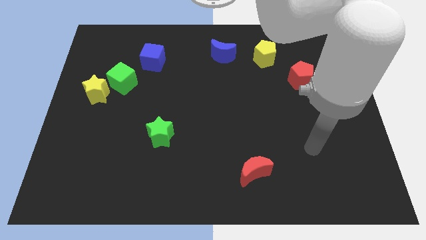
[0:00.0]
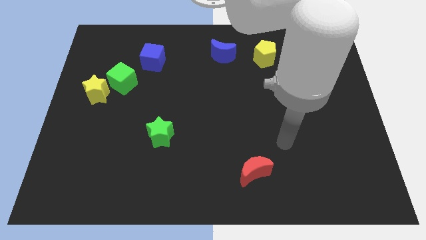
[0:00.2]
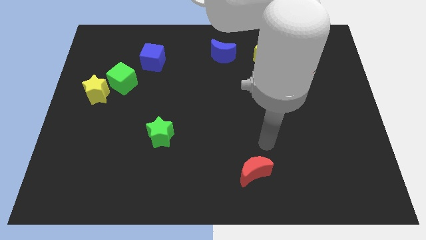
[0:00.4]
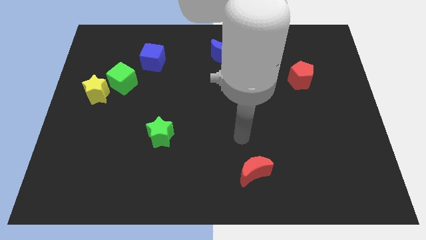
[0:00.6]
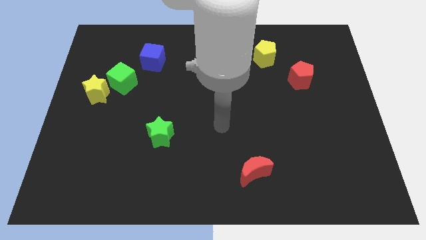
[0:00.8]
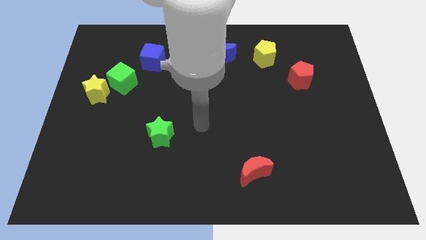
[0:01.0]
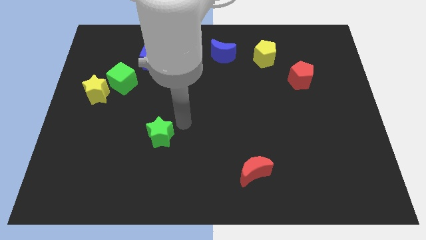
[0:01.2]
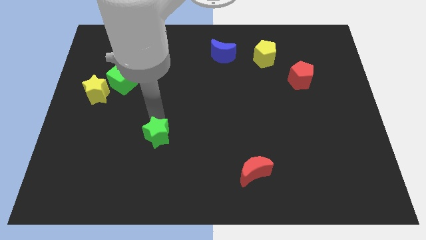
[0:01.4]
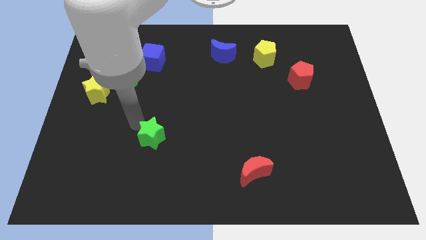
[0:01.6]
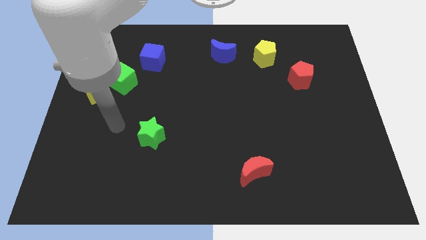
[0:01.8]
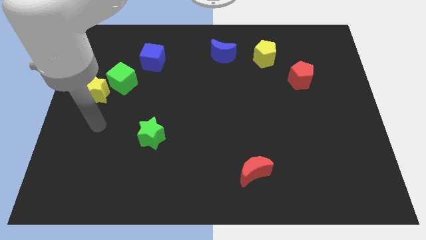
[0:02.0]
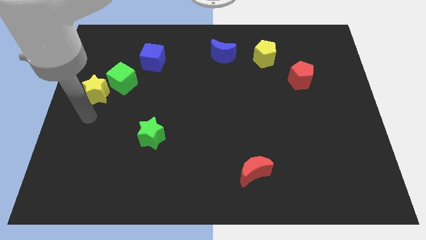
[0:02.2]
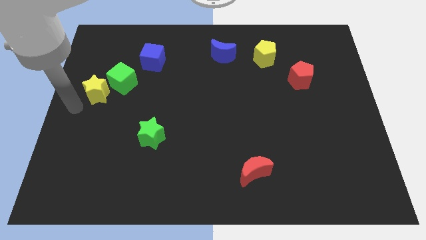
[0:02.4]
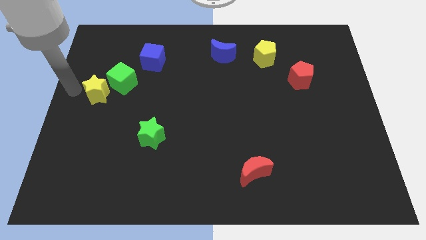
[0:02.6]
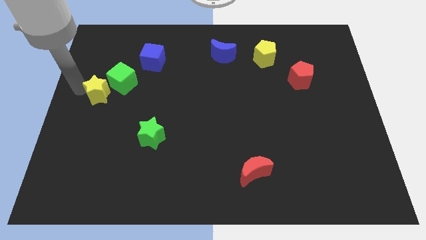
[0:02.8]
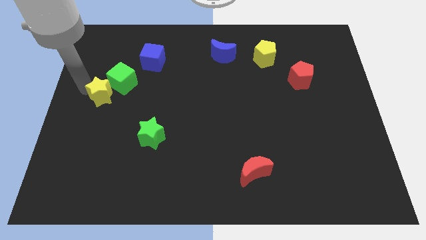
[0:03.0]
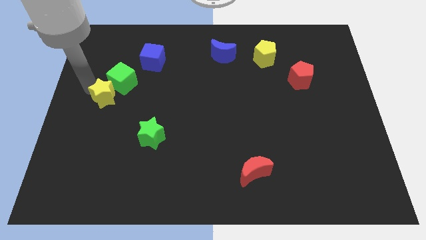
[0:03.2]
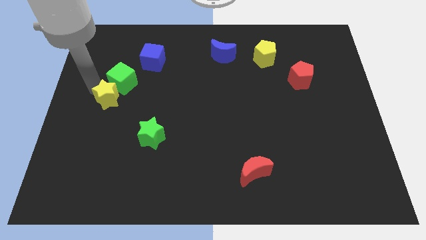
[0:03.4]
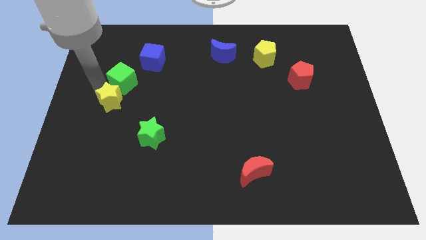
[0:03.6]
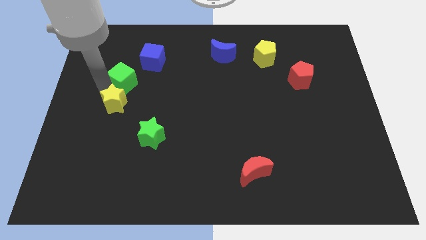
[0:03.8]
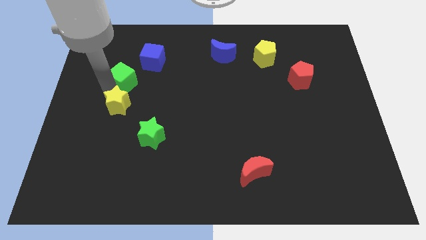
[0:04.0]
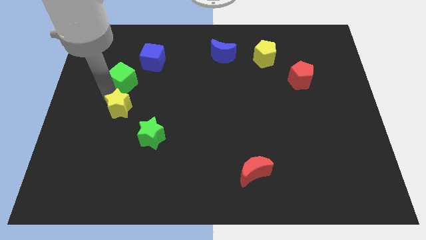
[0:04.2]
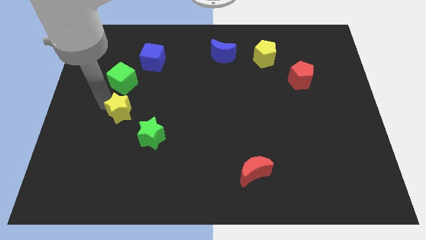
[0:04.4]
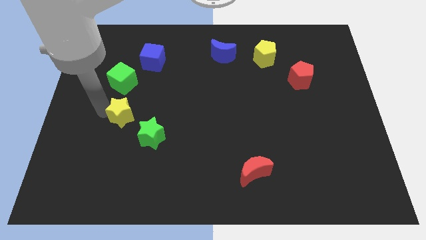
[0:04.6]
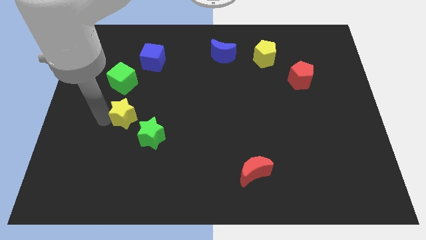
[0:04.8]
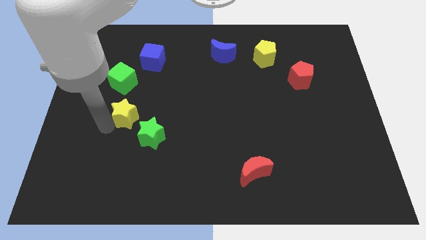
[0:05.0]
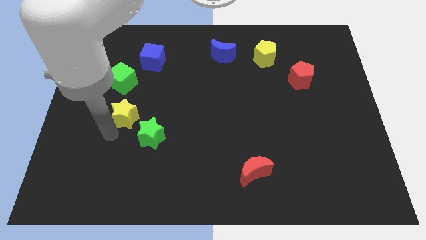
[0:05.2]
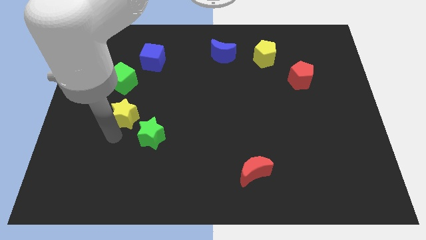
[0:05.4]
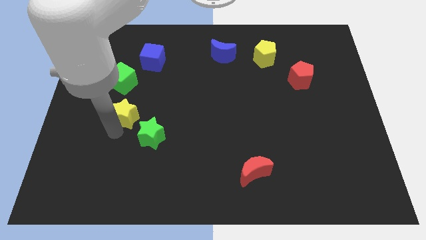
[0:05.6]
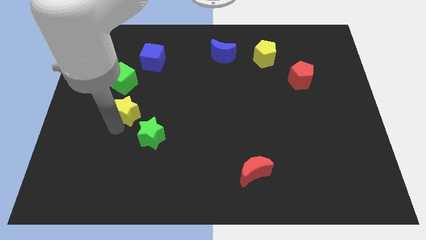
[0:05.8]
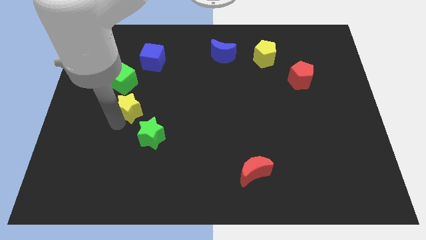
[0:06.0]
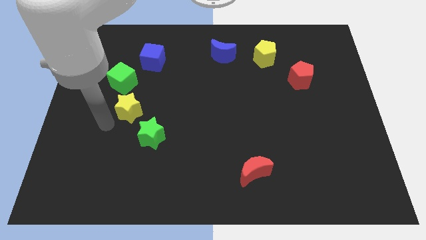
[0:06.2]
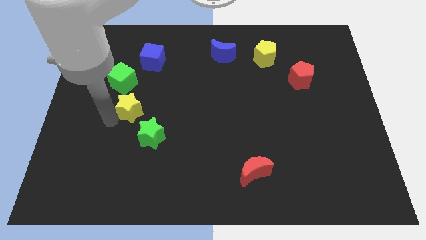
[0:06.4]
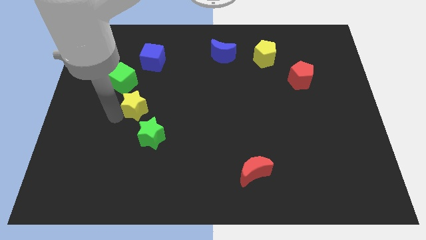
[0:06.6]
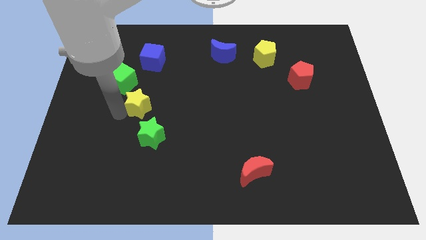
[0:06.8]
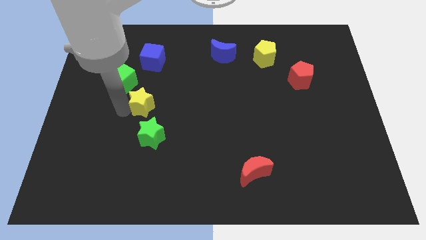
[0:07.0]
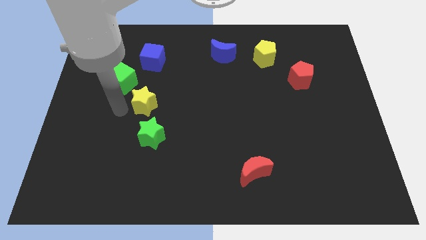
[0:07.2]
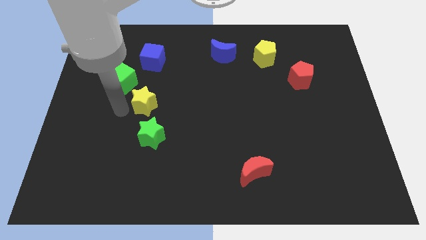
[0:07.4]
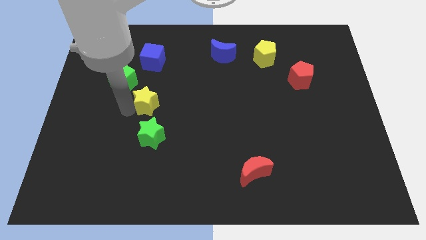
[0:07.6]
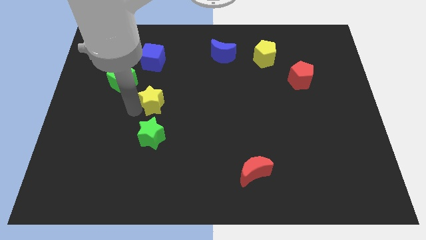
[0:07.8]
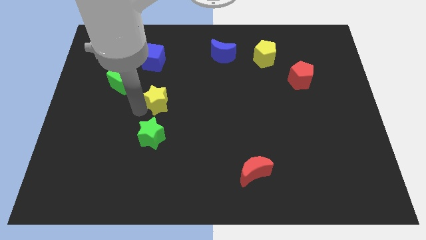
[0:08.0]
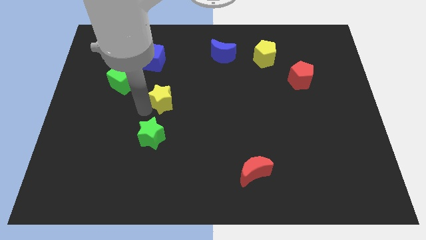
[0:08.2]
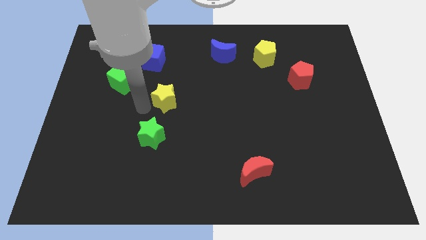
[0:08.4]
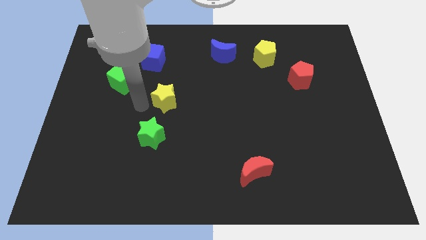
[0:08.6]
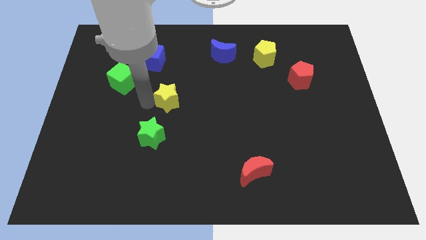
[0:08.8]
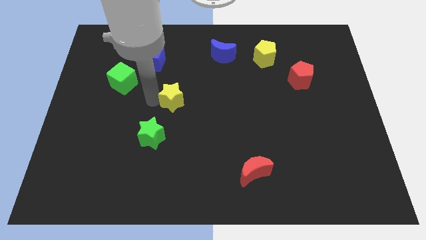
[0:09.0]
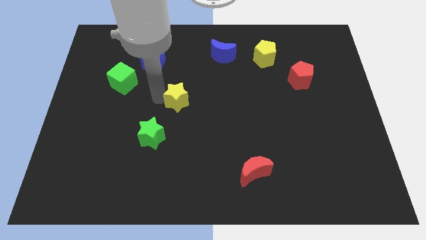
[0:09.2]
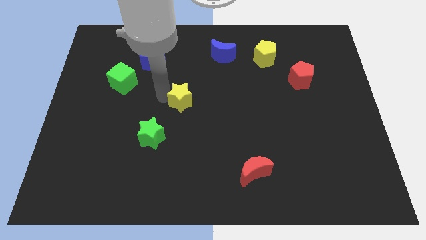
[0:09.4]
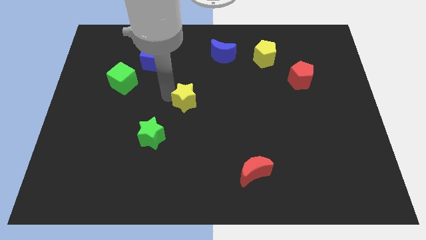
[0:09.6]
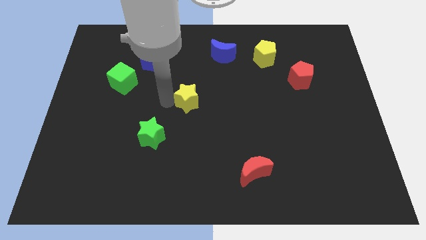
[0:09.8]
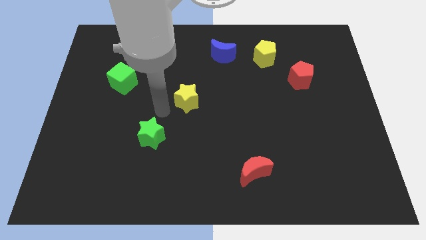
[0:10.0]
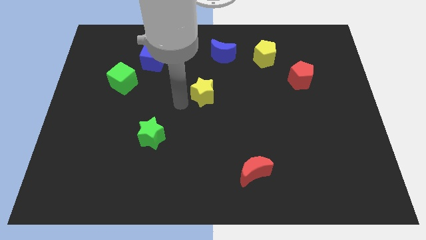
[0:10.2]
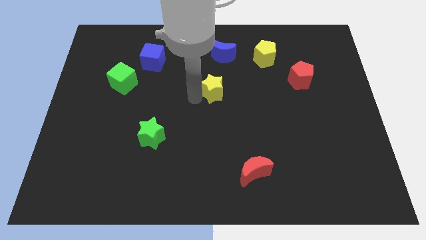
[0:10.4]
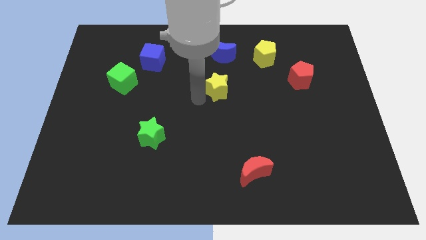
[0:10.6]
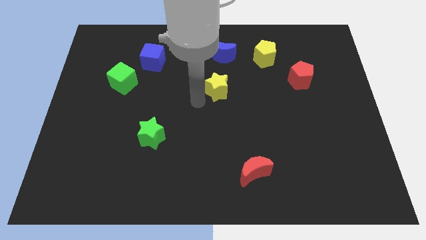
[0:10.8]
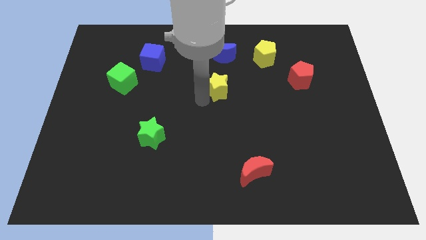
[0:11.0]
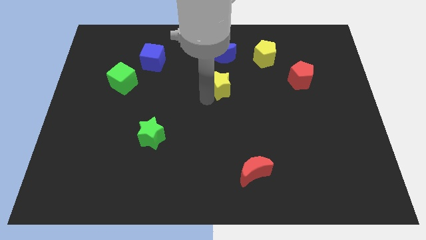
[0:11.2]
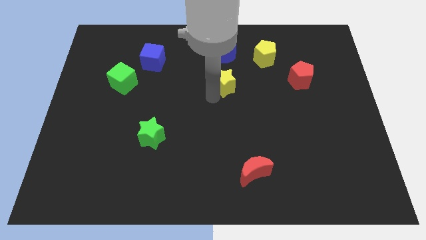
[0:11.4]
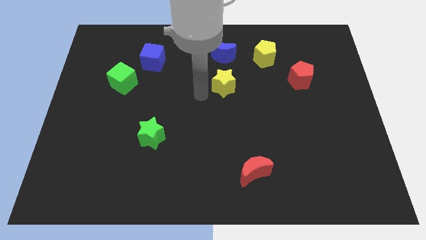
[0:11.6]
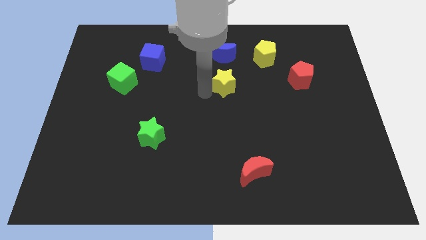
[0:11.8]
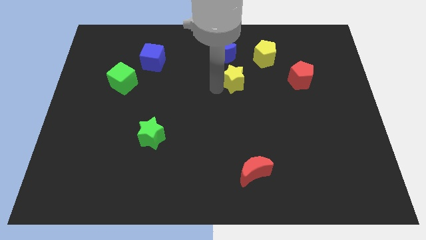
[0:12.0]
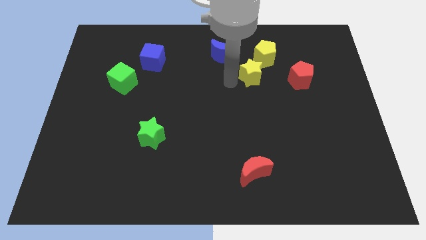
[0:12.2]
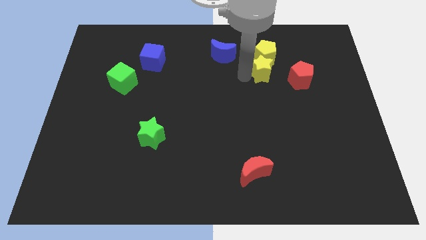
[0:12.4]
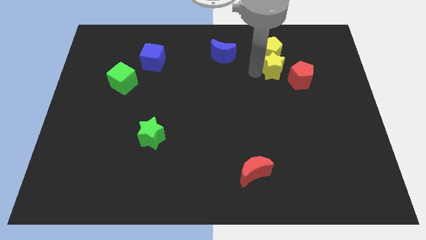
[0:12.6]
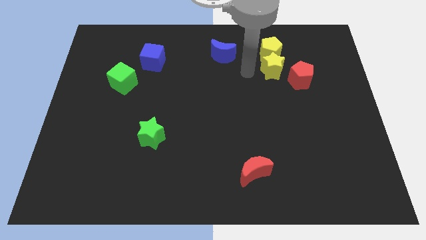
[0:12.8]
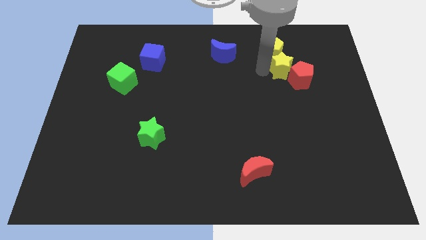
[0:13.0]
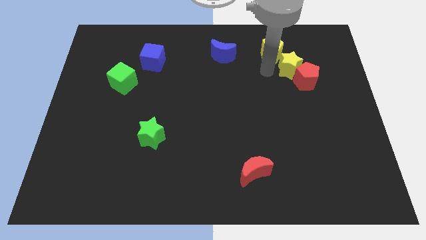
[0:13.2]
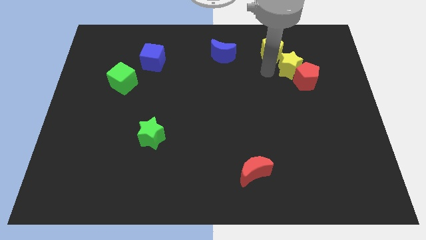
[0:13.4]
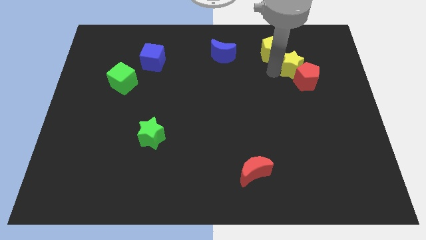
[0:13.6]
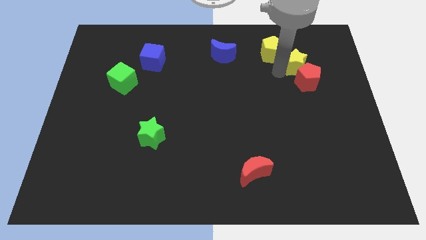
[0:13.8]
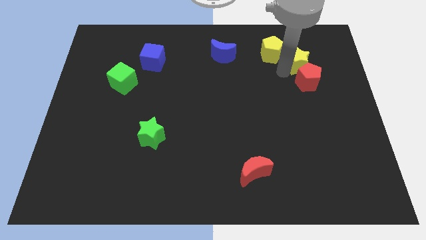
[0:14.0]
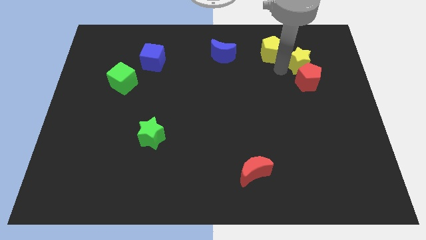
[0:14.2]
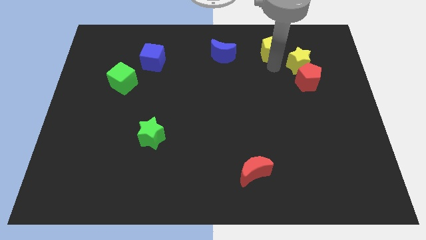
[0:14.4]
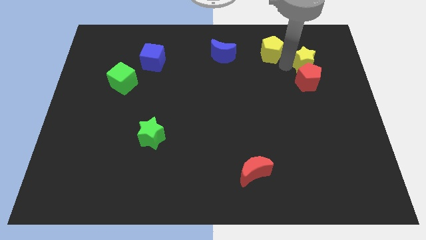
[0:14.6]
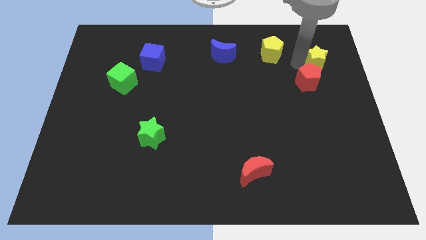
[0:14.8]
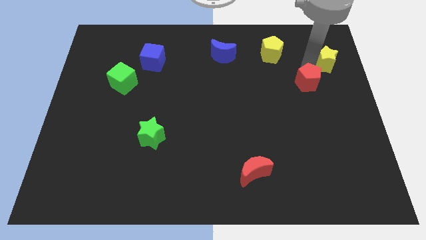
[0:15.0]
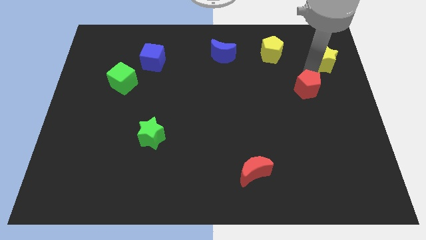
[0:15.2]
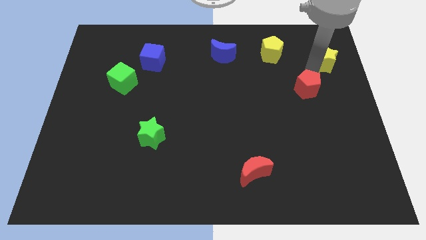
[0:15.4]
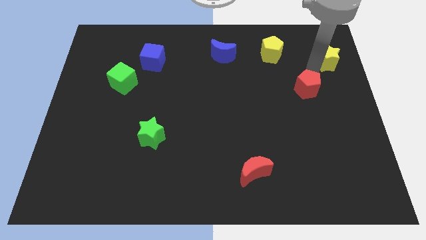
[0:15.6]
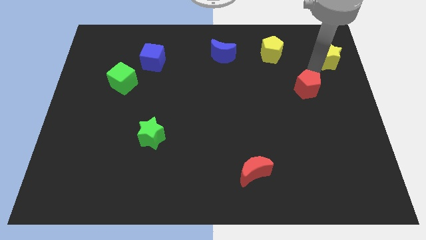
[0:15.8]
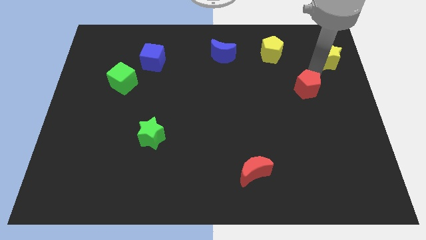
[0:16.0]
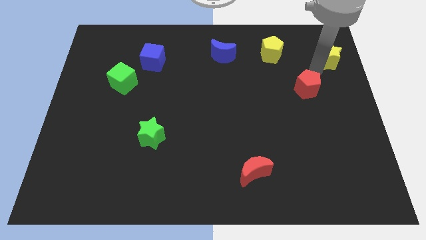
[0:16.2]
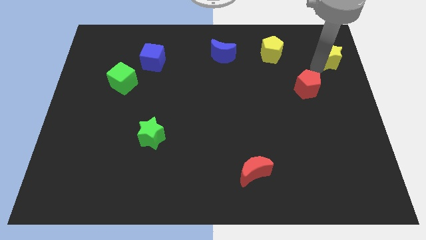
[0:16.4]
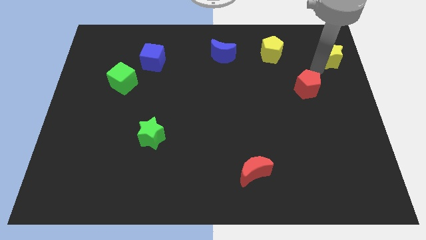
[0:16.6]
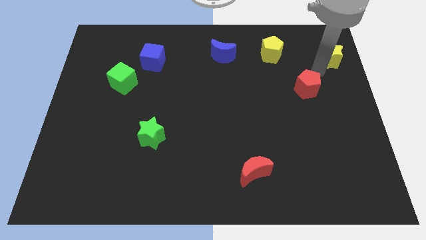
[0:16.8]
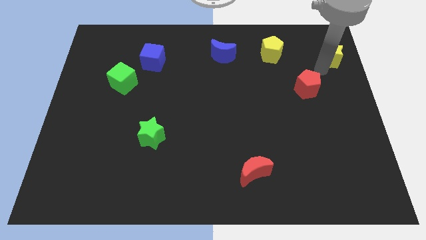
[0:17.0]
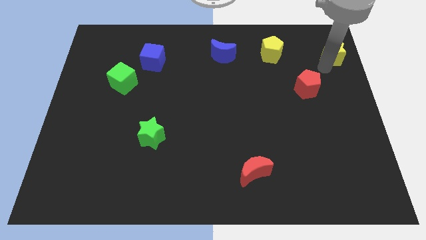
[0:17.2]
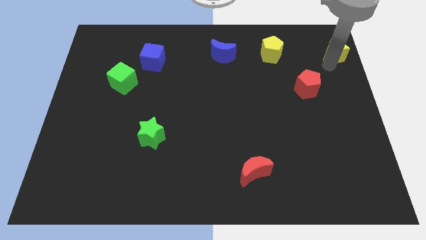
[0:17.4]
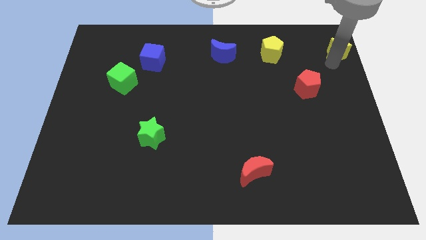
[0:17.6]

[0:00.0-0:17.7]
move the yellow star to the top right of the board
